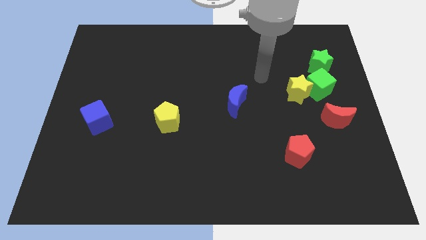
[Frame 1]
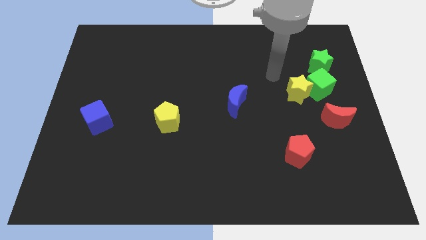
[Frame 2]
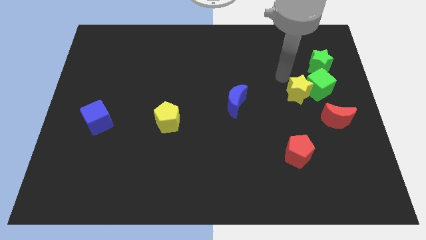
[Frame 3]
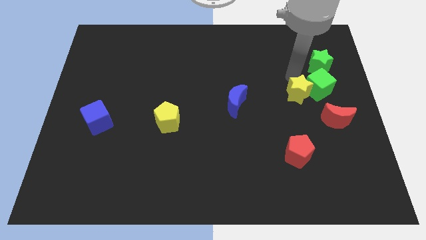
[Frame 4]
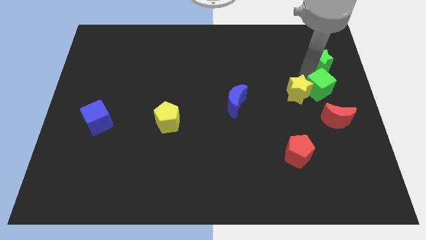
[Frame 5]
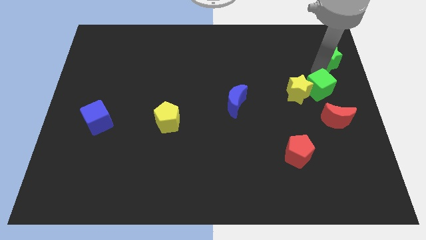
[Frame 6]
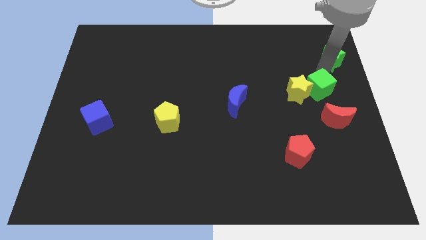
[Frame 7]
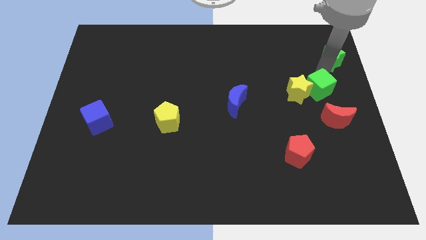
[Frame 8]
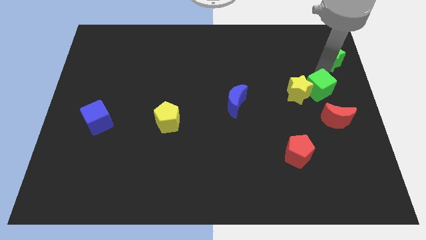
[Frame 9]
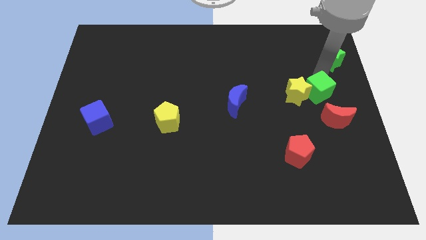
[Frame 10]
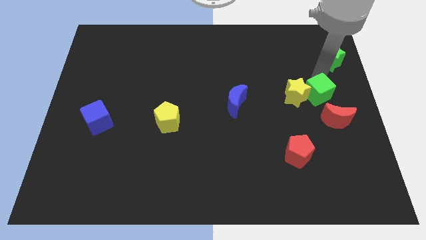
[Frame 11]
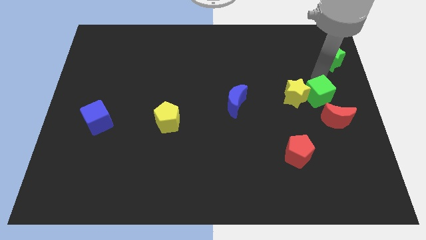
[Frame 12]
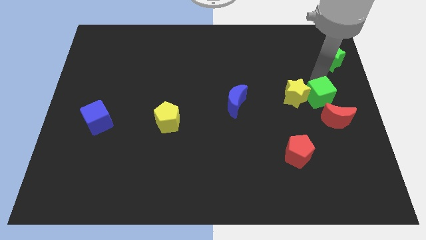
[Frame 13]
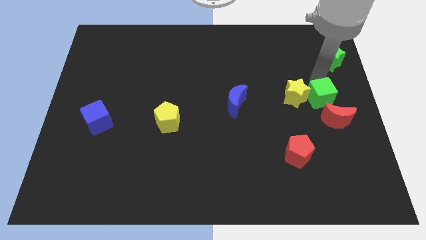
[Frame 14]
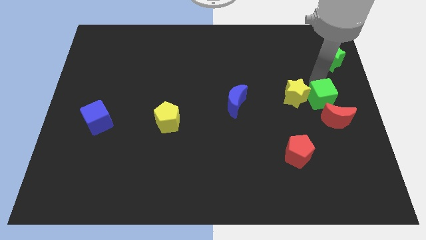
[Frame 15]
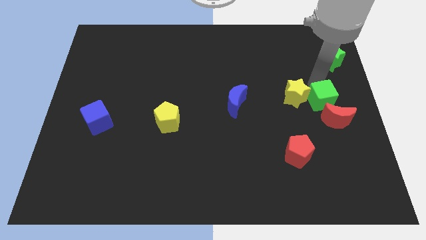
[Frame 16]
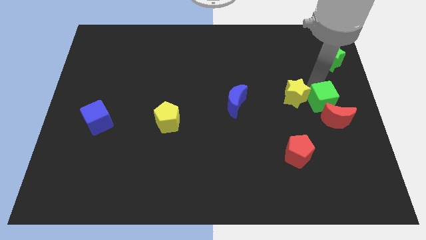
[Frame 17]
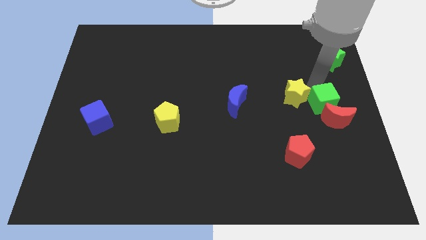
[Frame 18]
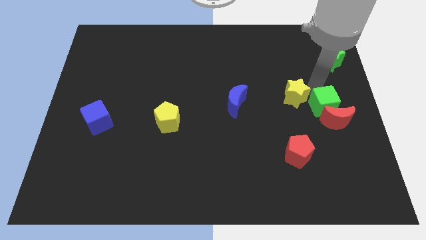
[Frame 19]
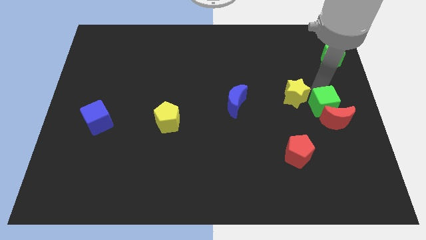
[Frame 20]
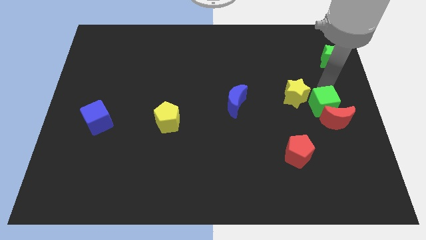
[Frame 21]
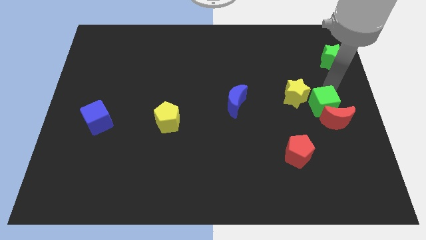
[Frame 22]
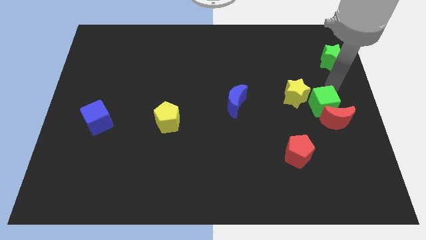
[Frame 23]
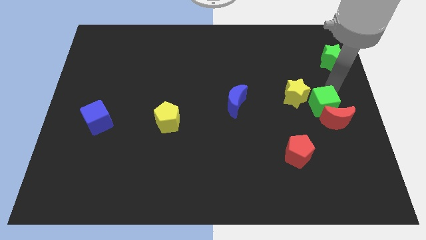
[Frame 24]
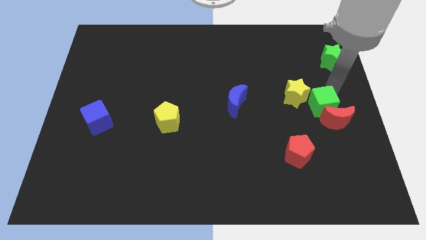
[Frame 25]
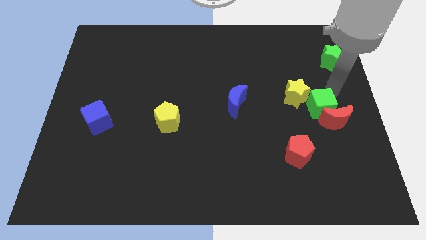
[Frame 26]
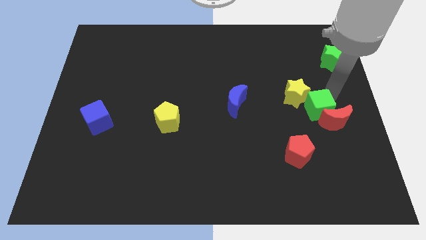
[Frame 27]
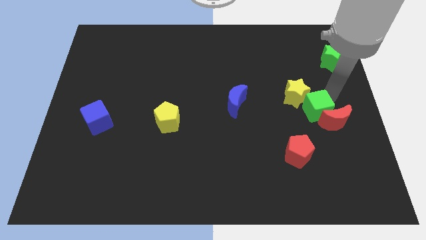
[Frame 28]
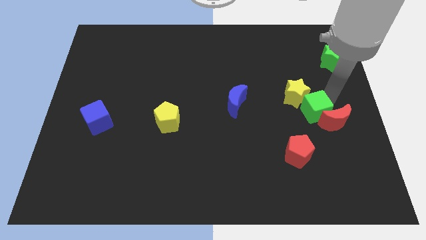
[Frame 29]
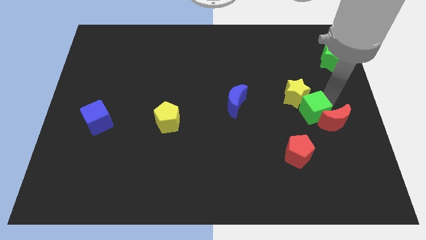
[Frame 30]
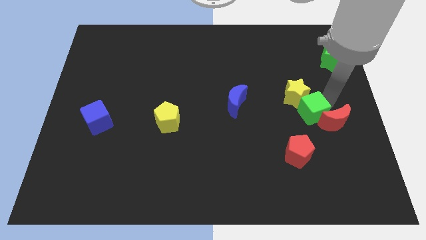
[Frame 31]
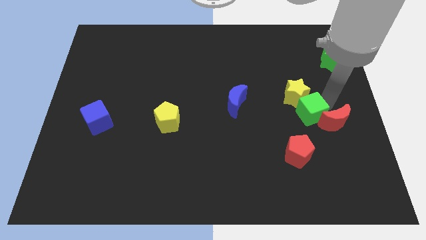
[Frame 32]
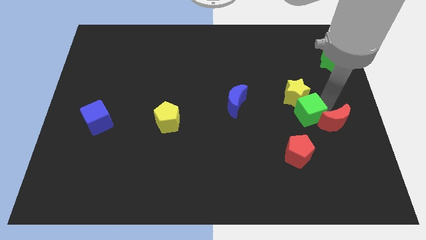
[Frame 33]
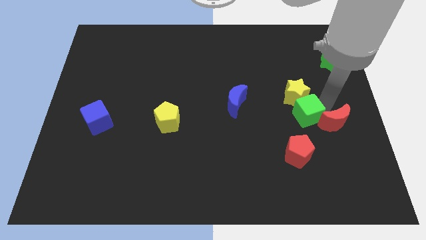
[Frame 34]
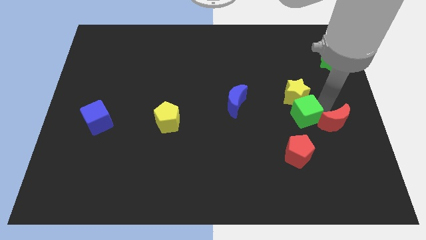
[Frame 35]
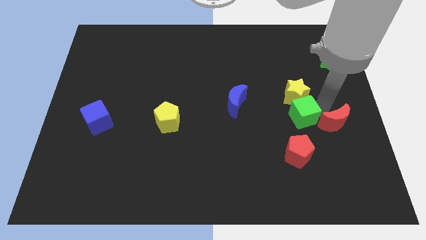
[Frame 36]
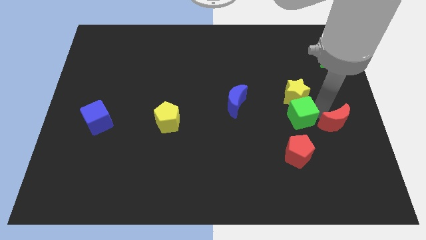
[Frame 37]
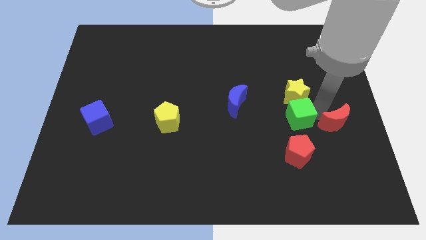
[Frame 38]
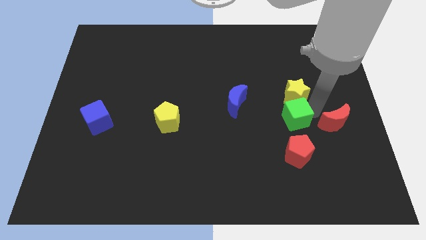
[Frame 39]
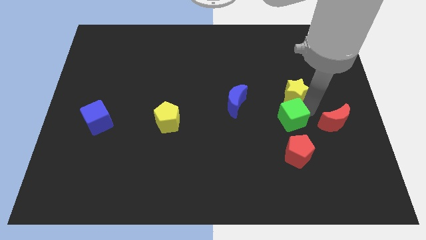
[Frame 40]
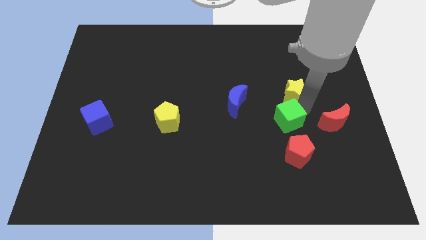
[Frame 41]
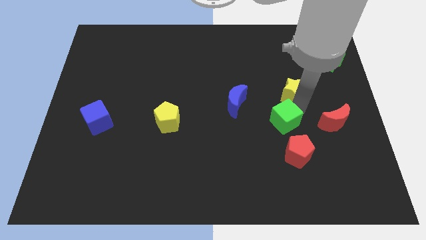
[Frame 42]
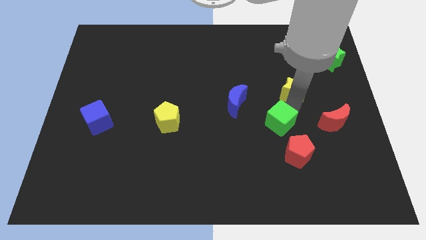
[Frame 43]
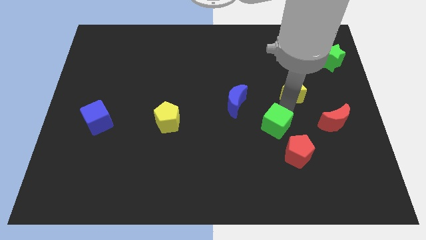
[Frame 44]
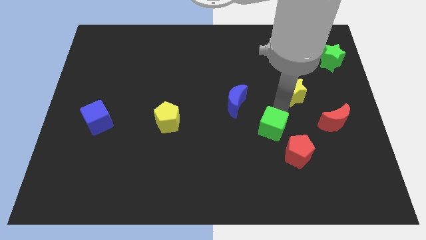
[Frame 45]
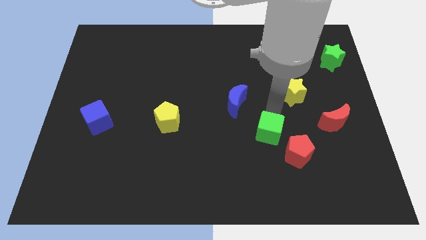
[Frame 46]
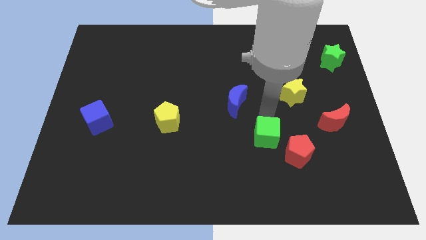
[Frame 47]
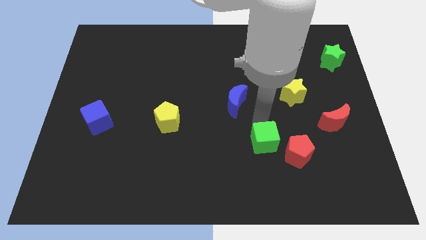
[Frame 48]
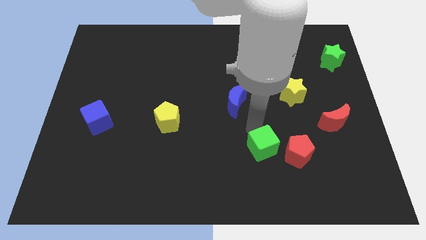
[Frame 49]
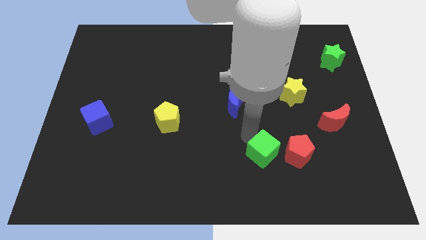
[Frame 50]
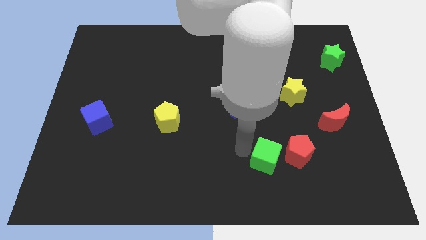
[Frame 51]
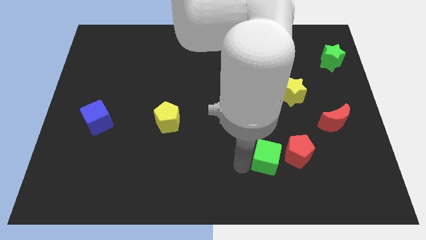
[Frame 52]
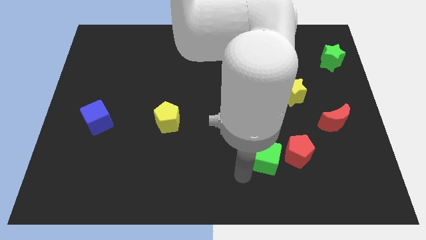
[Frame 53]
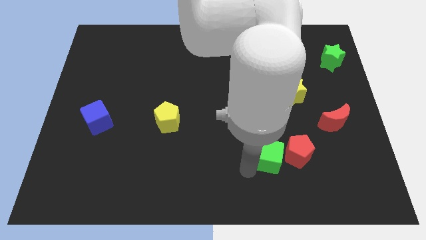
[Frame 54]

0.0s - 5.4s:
move the green cube towards the red pentagon

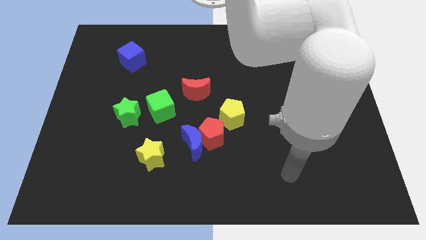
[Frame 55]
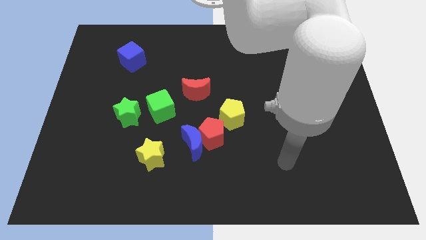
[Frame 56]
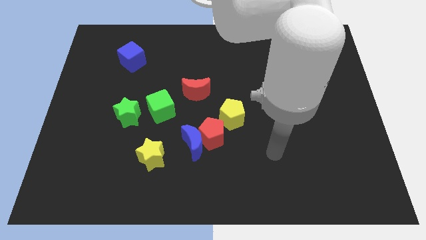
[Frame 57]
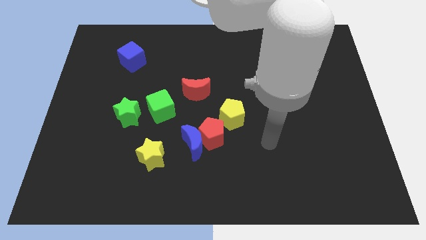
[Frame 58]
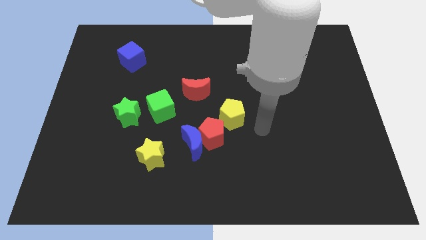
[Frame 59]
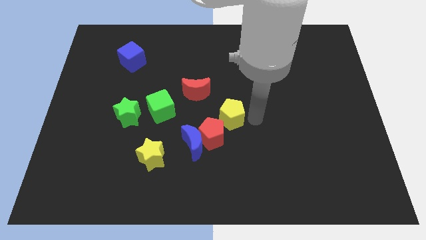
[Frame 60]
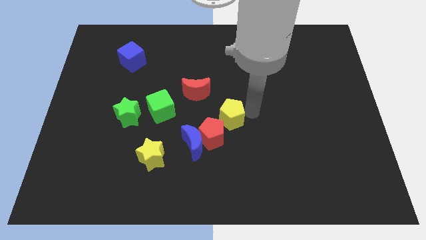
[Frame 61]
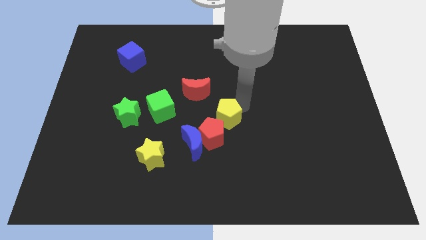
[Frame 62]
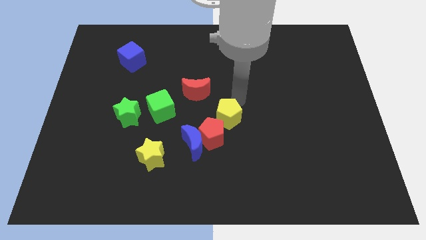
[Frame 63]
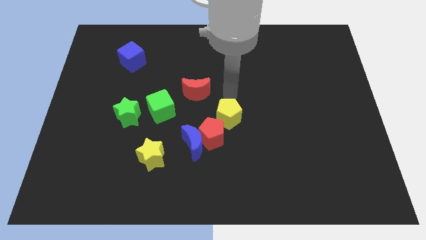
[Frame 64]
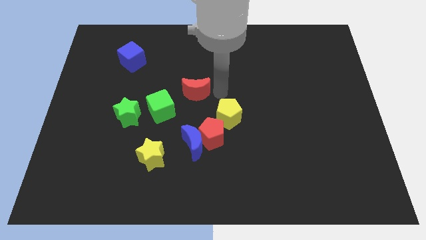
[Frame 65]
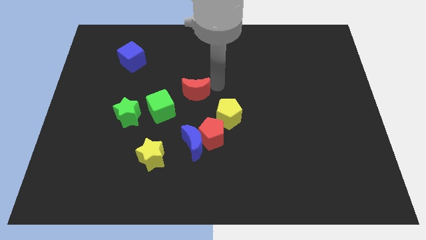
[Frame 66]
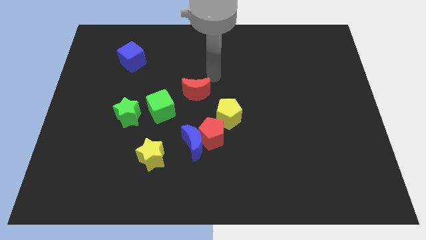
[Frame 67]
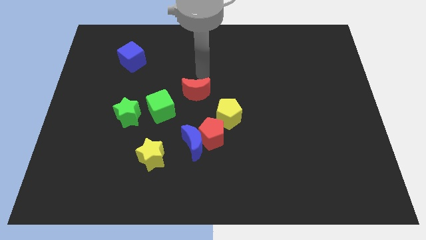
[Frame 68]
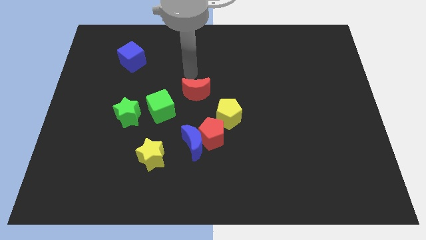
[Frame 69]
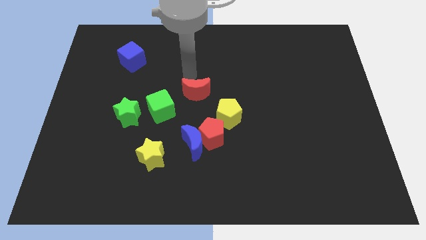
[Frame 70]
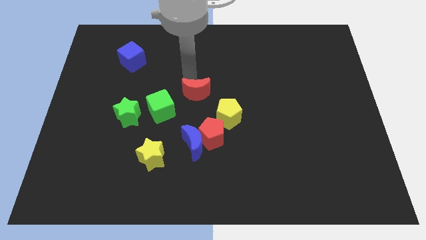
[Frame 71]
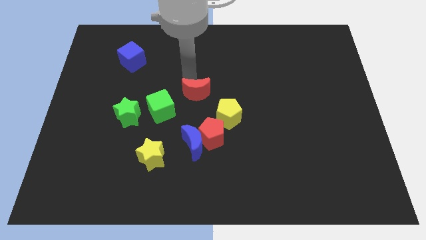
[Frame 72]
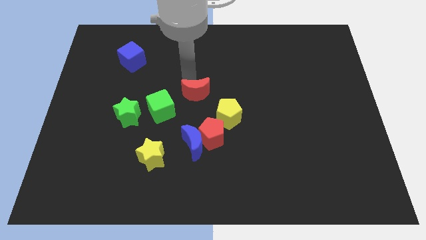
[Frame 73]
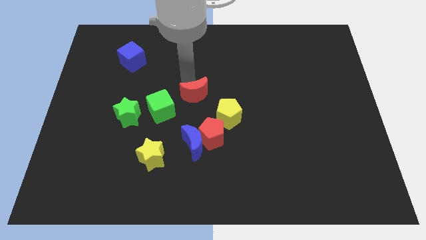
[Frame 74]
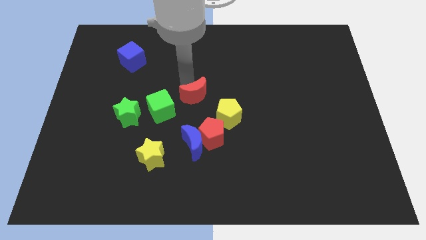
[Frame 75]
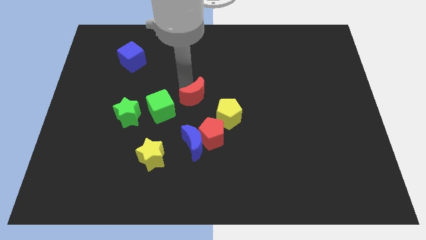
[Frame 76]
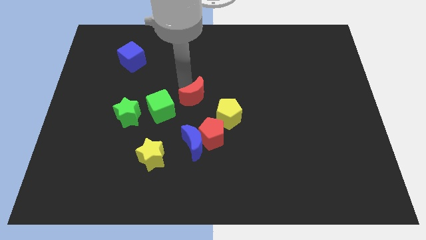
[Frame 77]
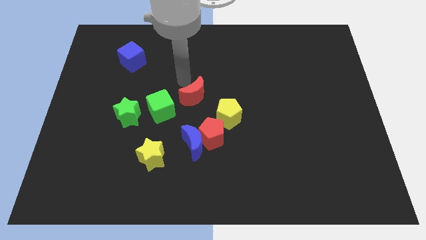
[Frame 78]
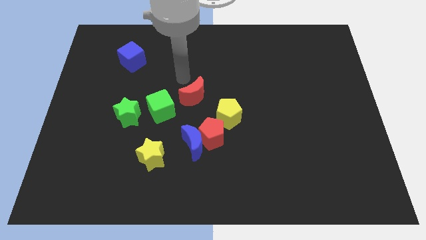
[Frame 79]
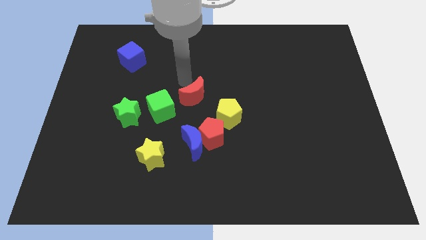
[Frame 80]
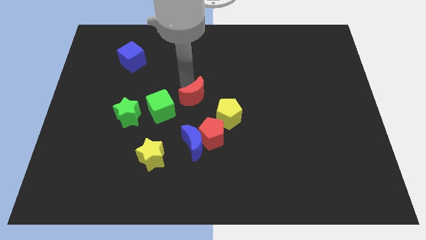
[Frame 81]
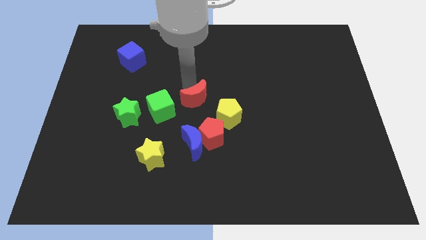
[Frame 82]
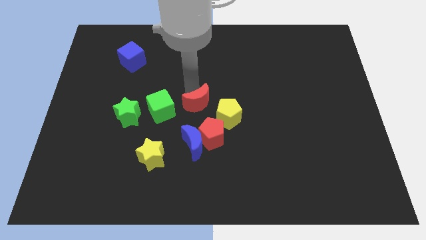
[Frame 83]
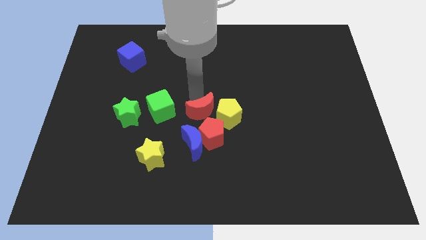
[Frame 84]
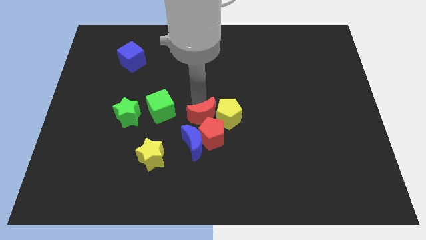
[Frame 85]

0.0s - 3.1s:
push the red moon next to the red pentagon
